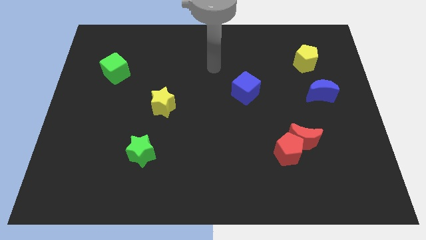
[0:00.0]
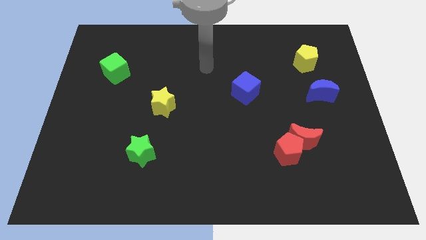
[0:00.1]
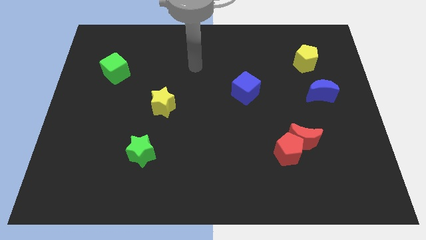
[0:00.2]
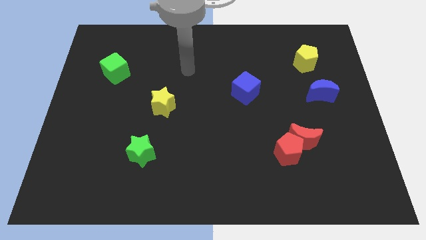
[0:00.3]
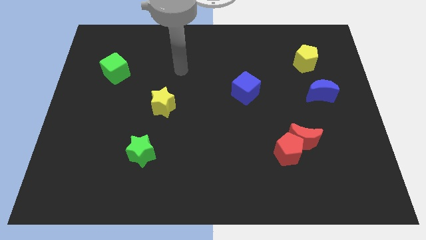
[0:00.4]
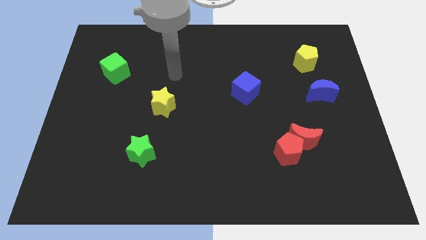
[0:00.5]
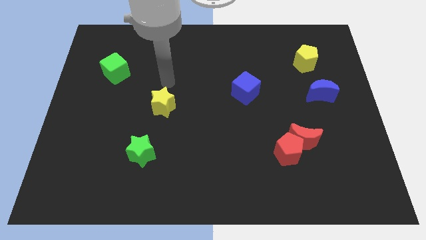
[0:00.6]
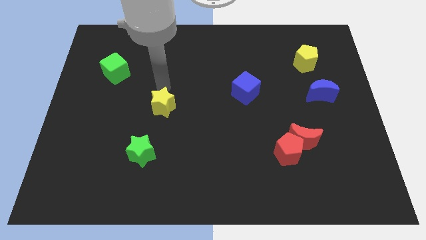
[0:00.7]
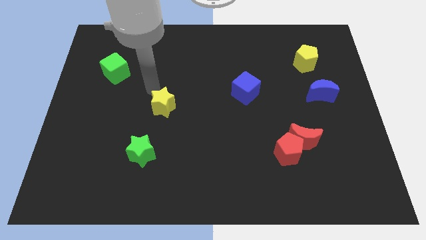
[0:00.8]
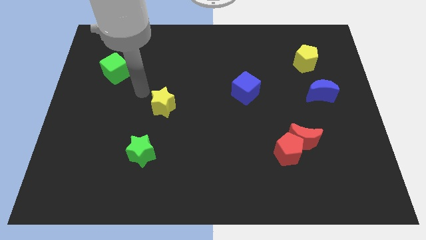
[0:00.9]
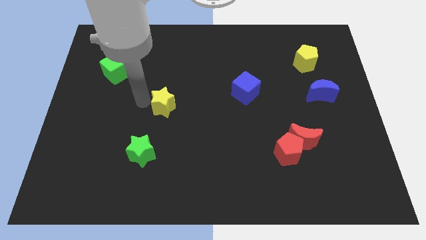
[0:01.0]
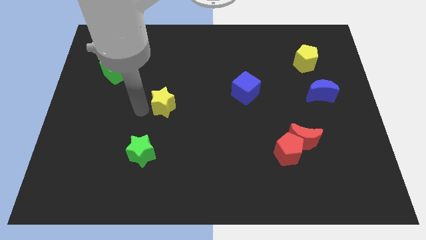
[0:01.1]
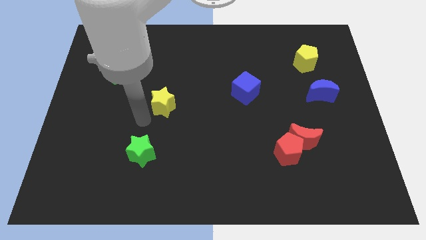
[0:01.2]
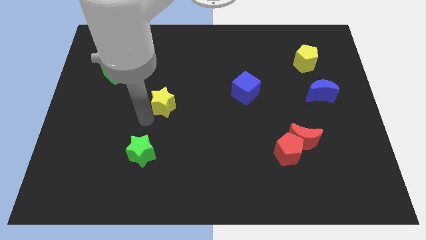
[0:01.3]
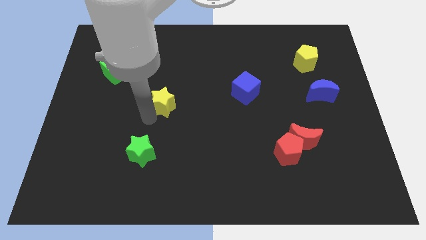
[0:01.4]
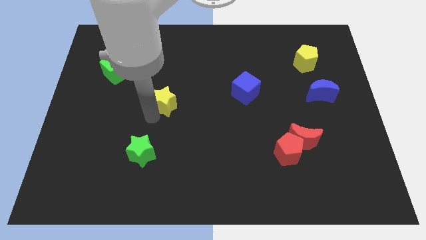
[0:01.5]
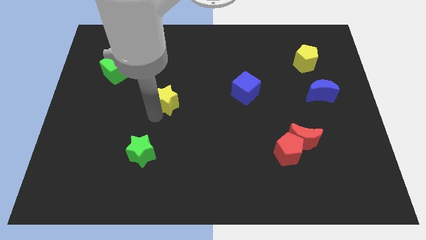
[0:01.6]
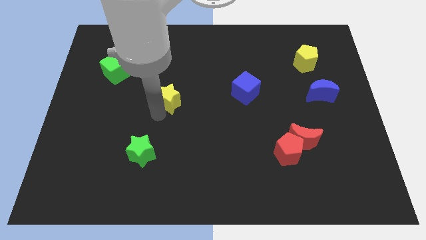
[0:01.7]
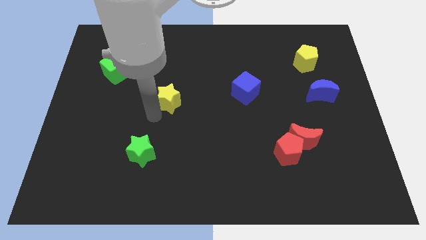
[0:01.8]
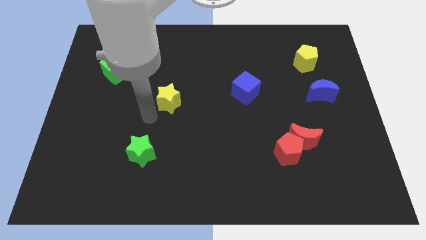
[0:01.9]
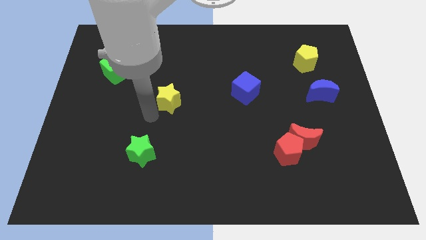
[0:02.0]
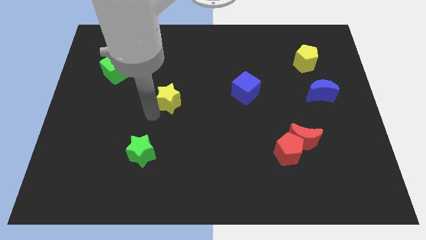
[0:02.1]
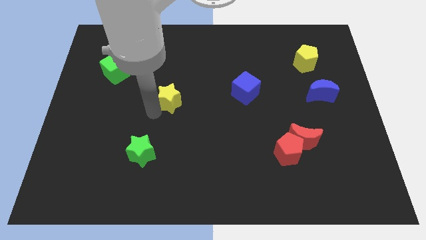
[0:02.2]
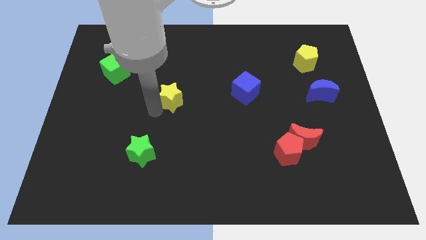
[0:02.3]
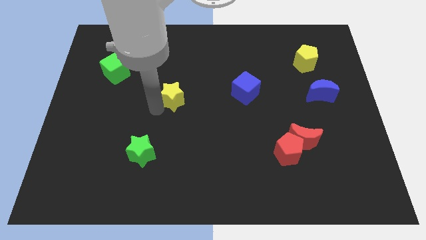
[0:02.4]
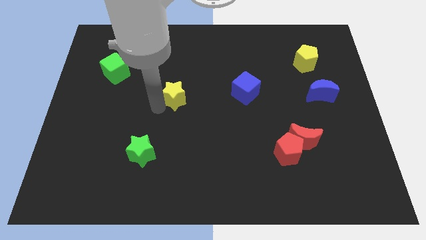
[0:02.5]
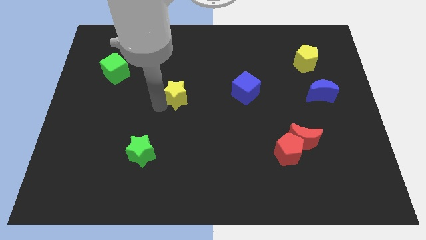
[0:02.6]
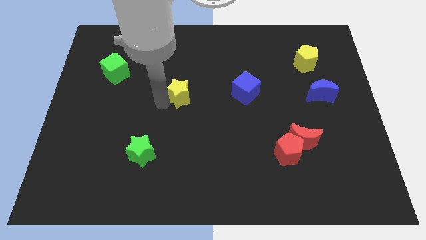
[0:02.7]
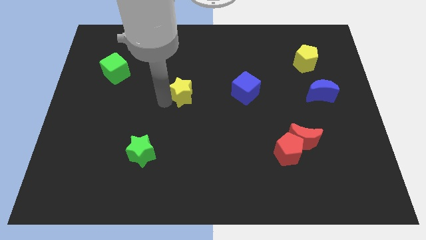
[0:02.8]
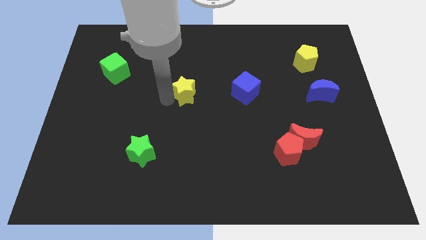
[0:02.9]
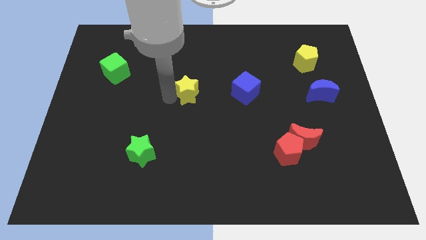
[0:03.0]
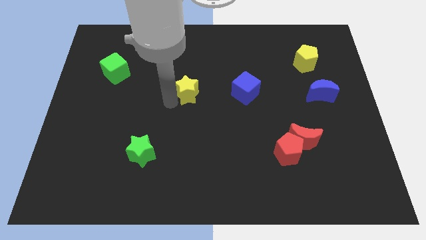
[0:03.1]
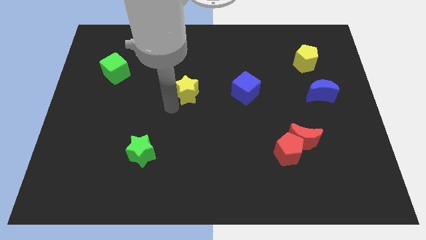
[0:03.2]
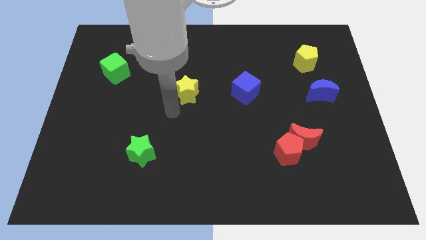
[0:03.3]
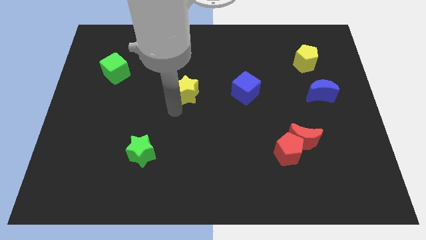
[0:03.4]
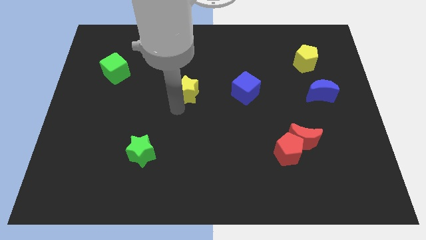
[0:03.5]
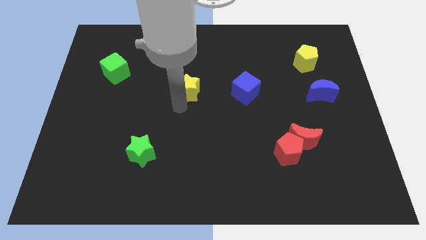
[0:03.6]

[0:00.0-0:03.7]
slightly move the yellow star up and right diagonally

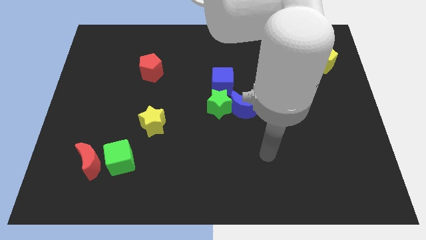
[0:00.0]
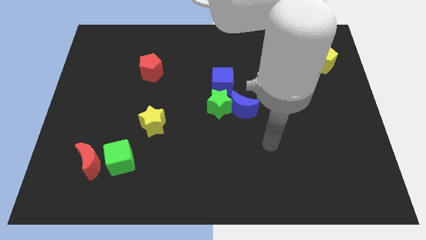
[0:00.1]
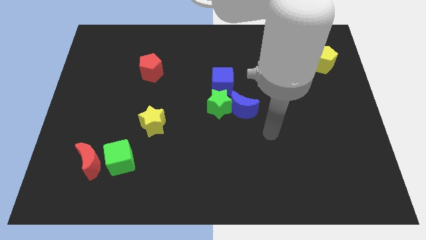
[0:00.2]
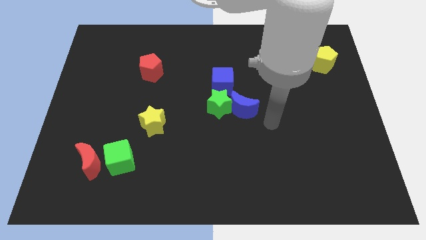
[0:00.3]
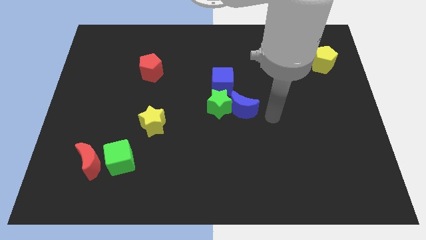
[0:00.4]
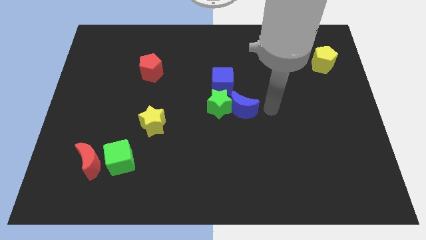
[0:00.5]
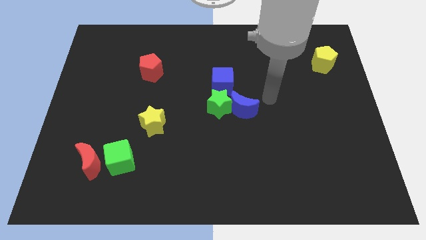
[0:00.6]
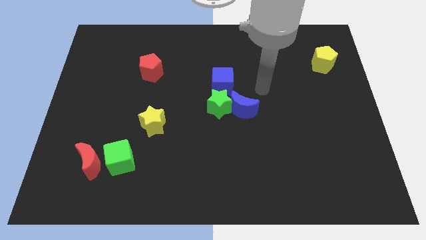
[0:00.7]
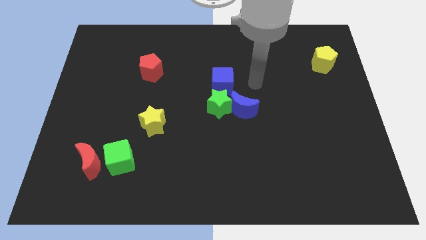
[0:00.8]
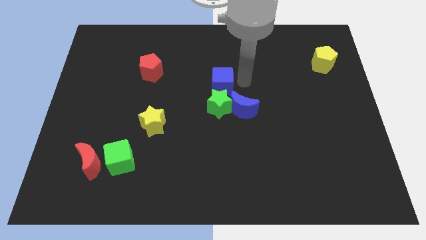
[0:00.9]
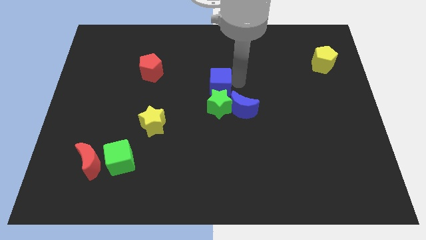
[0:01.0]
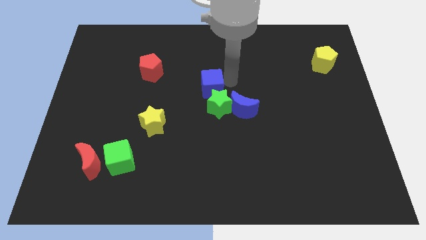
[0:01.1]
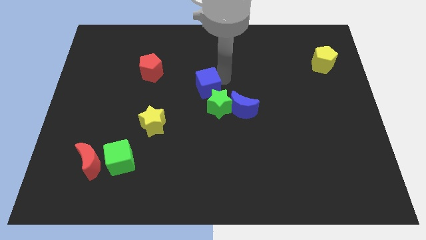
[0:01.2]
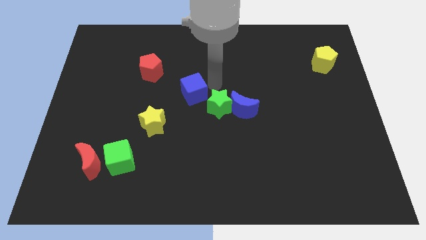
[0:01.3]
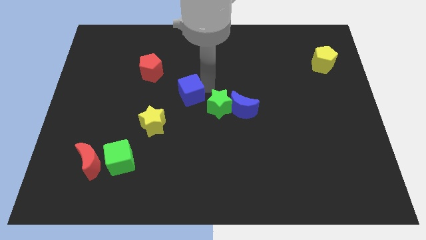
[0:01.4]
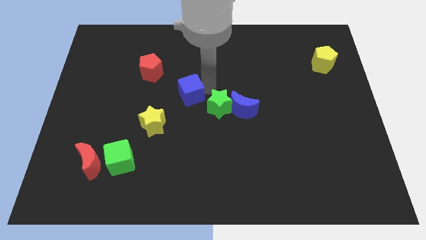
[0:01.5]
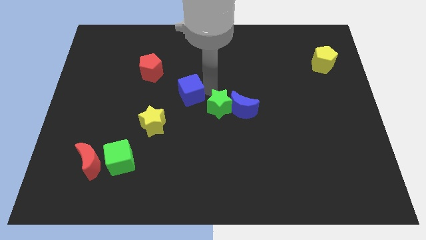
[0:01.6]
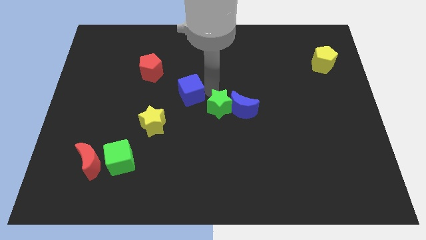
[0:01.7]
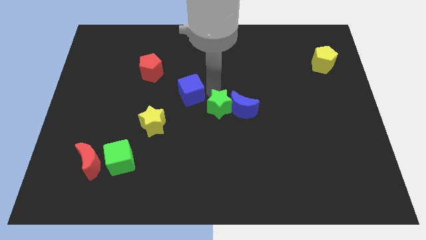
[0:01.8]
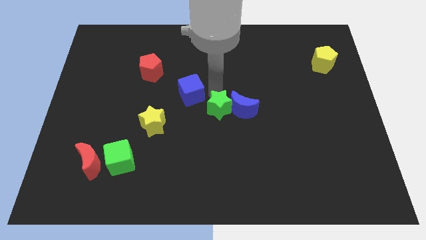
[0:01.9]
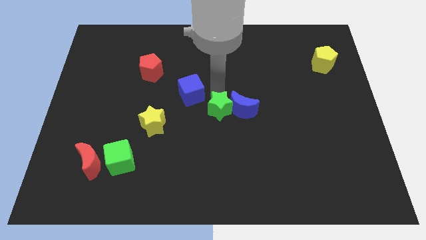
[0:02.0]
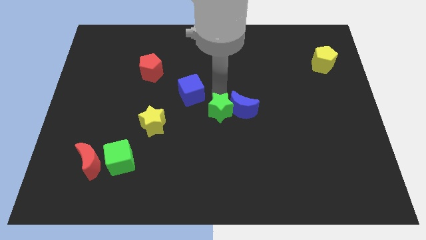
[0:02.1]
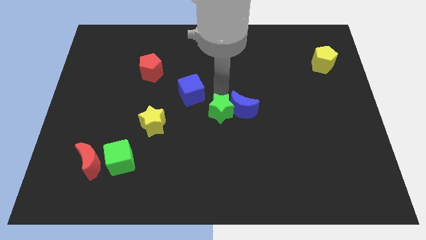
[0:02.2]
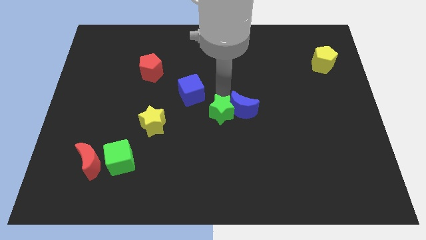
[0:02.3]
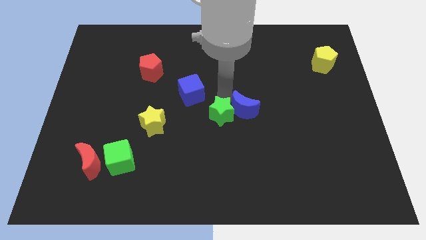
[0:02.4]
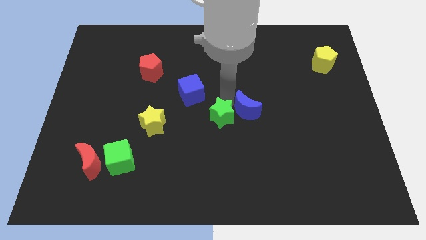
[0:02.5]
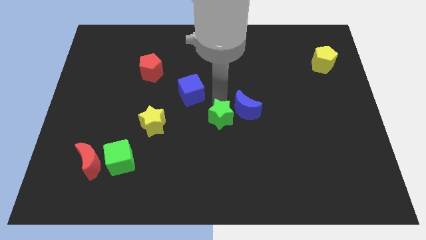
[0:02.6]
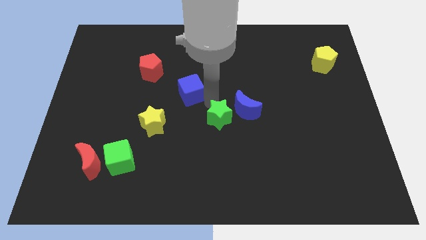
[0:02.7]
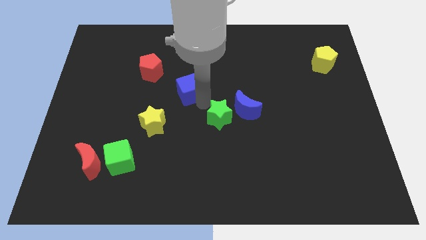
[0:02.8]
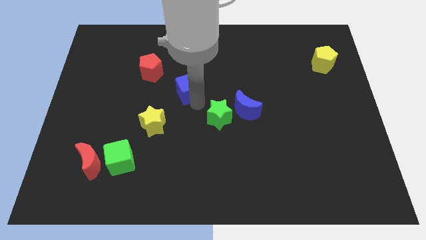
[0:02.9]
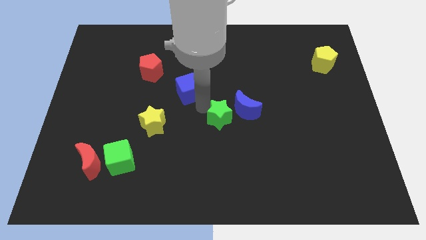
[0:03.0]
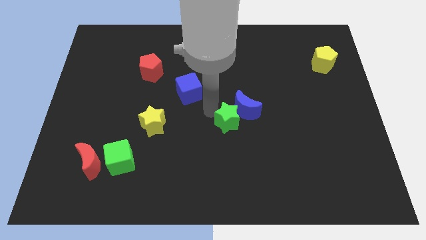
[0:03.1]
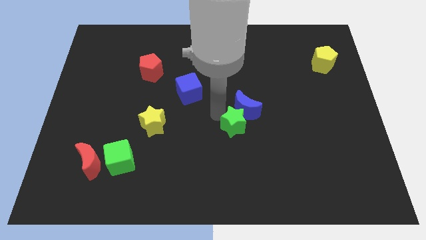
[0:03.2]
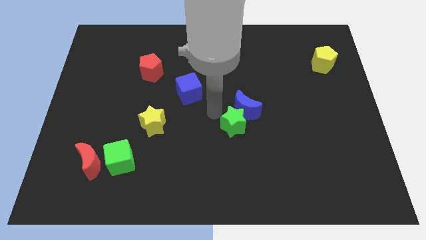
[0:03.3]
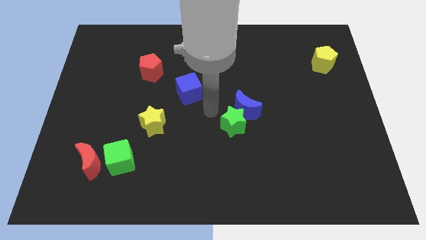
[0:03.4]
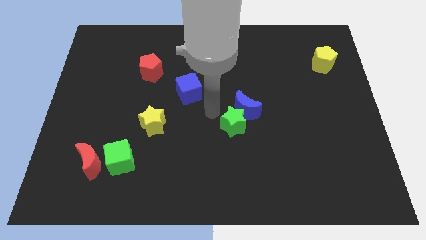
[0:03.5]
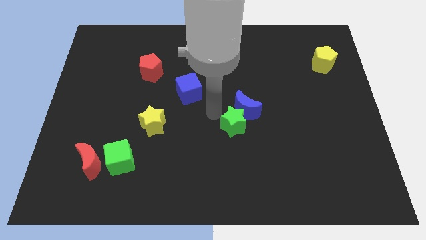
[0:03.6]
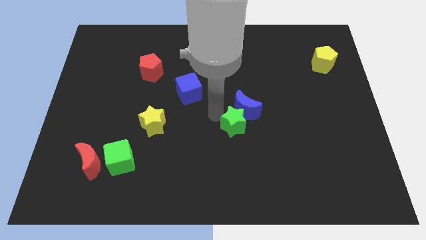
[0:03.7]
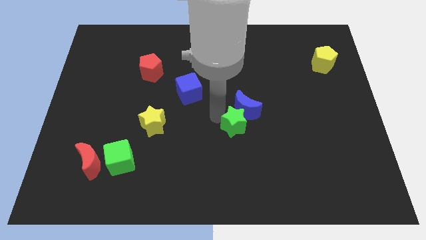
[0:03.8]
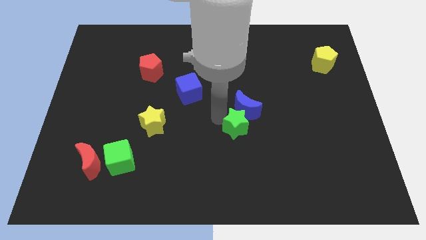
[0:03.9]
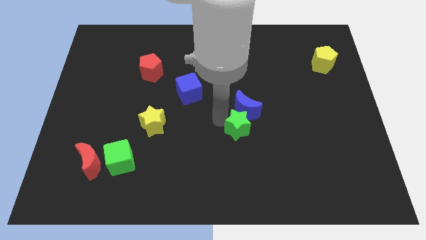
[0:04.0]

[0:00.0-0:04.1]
slightly slide the green star downwards and right

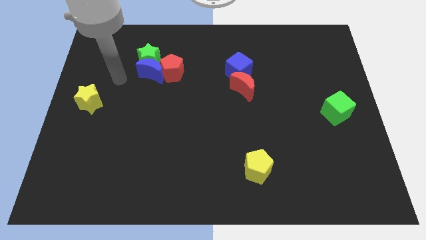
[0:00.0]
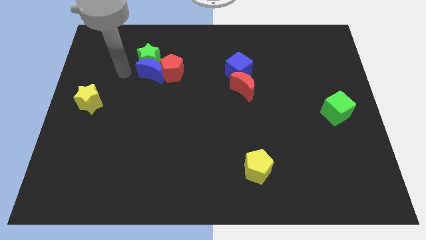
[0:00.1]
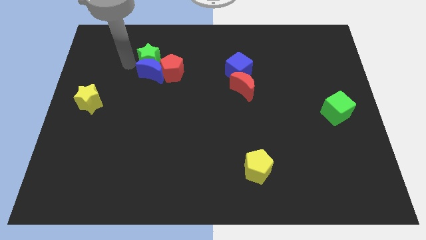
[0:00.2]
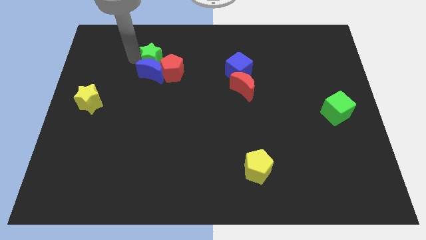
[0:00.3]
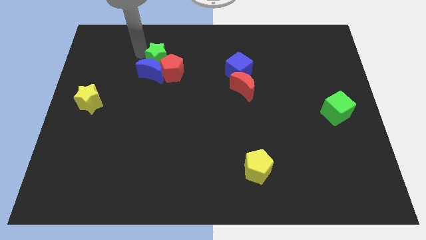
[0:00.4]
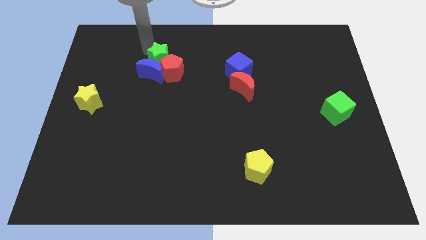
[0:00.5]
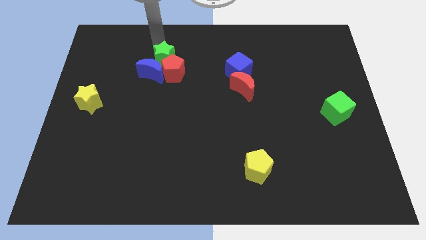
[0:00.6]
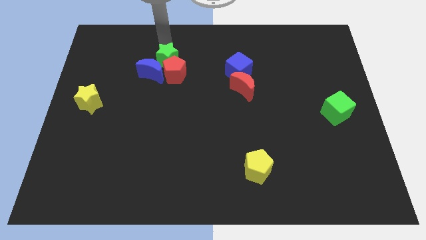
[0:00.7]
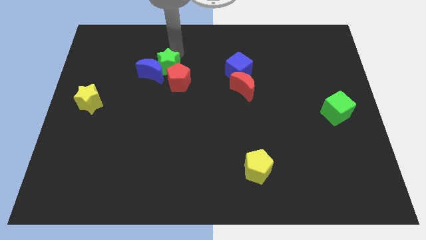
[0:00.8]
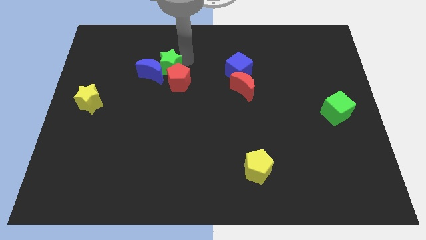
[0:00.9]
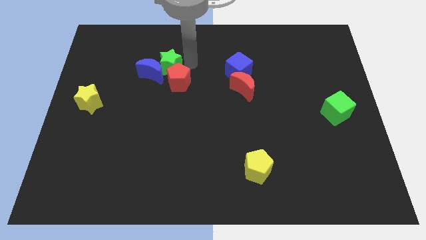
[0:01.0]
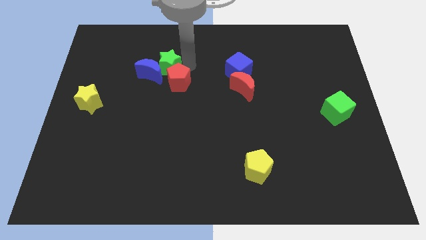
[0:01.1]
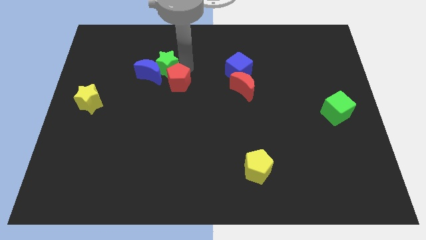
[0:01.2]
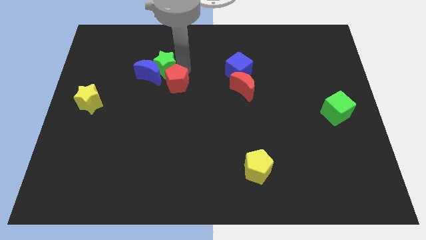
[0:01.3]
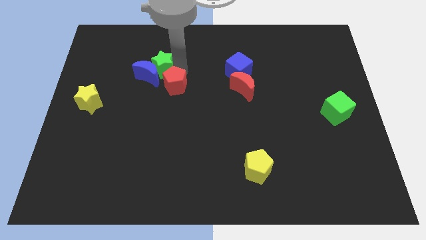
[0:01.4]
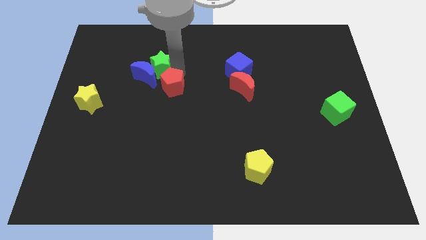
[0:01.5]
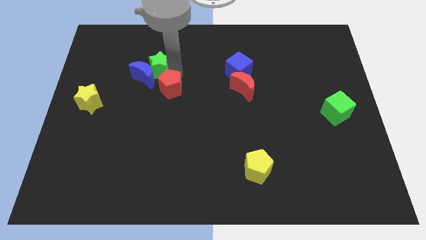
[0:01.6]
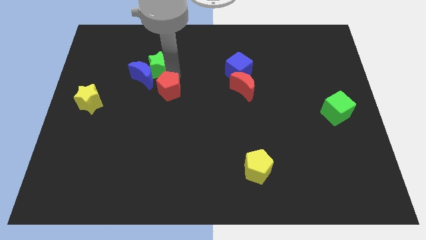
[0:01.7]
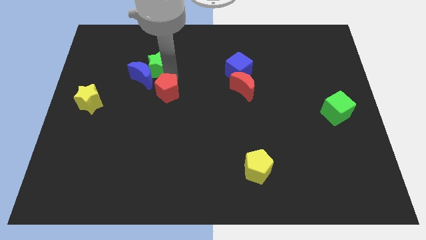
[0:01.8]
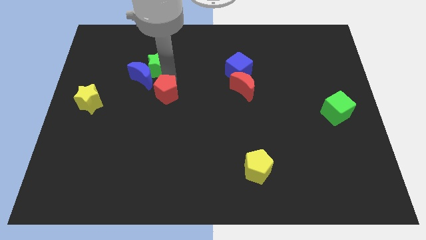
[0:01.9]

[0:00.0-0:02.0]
slide the red pentagon slightly down
